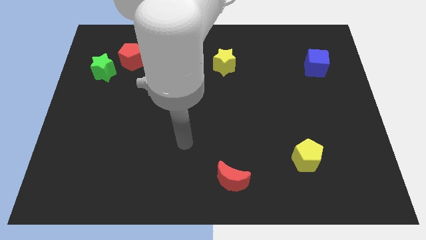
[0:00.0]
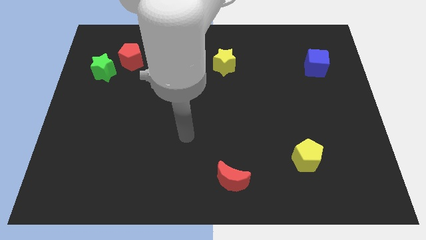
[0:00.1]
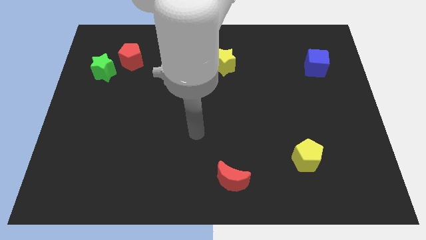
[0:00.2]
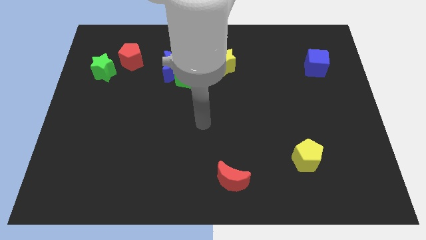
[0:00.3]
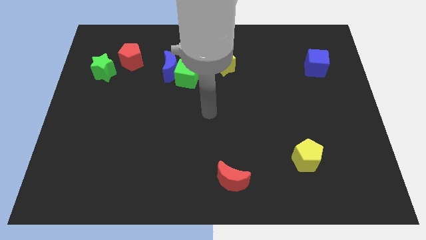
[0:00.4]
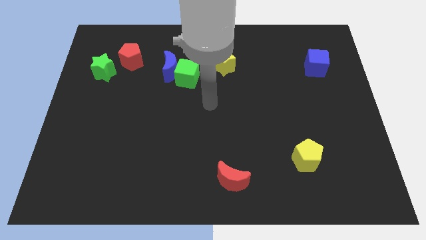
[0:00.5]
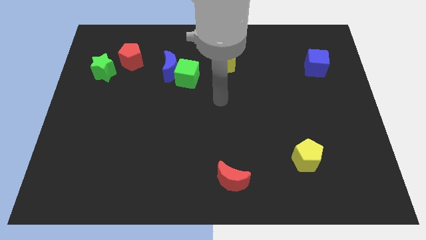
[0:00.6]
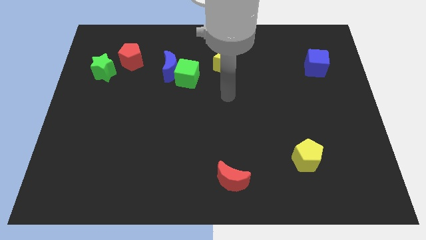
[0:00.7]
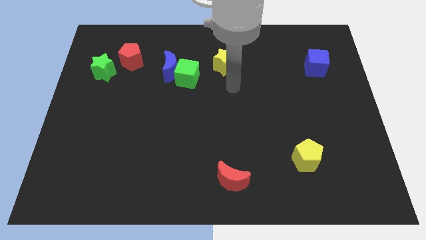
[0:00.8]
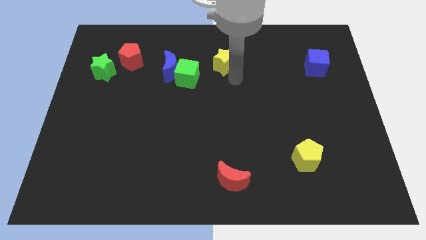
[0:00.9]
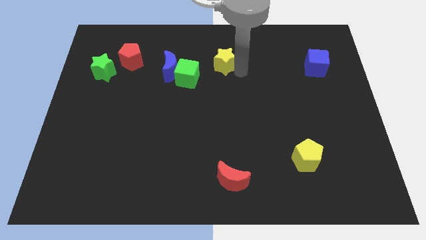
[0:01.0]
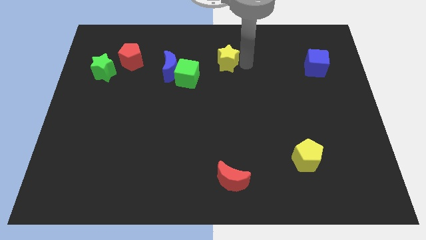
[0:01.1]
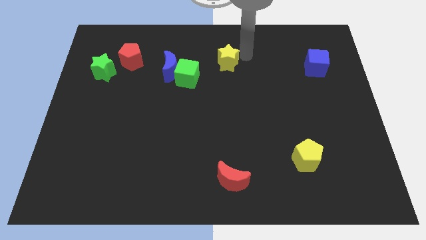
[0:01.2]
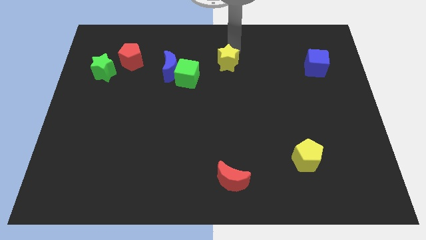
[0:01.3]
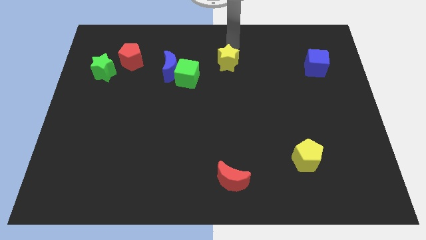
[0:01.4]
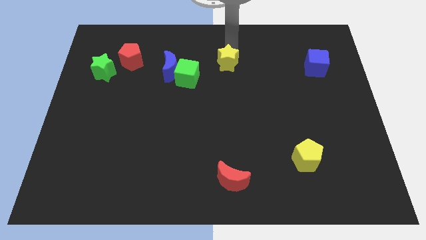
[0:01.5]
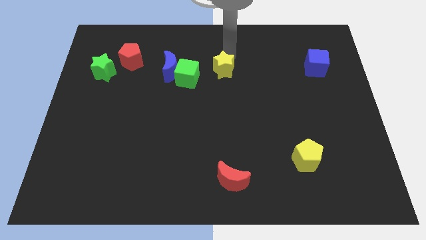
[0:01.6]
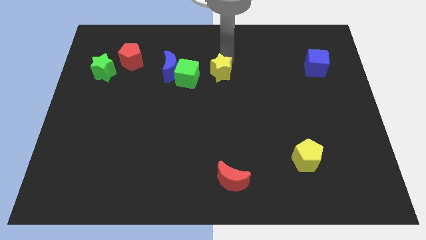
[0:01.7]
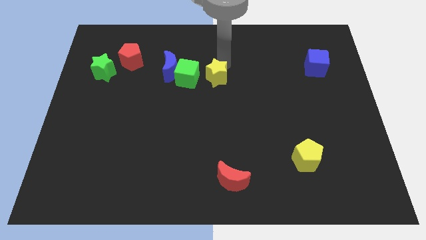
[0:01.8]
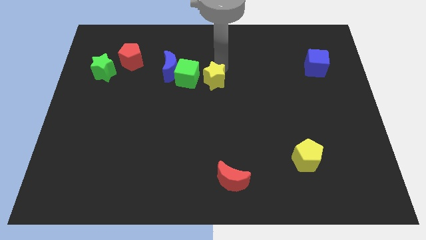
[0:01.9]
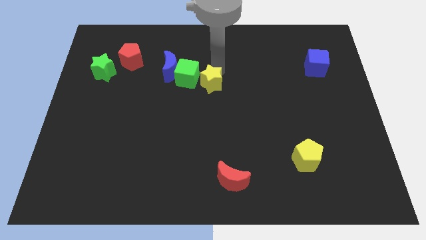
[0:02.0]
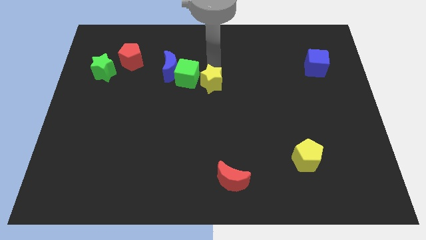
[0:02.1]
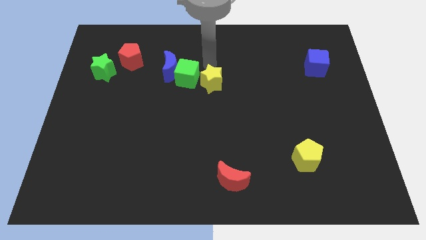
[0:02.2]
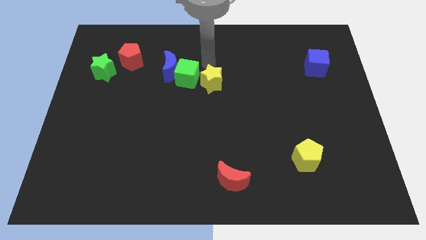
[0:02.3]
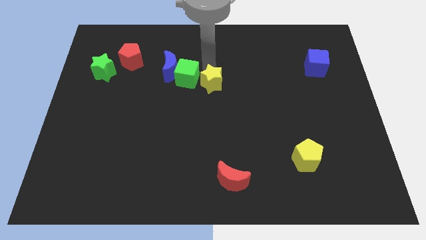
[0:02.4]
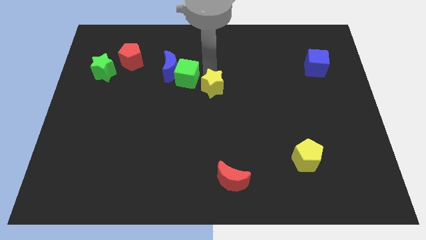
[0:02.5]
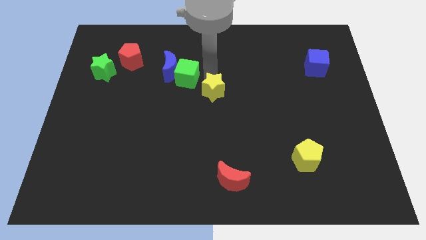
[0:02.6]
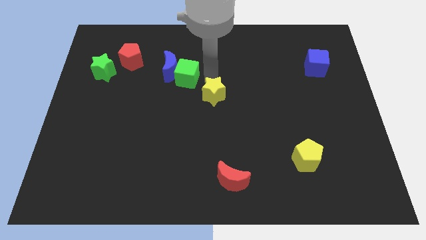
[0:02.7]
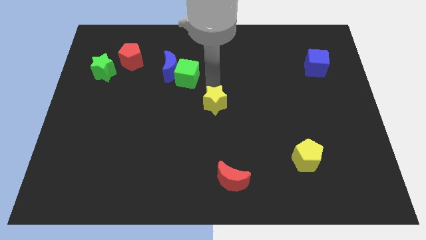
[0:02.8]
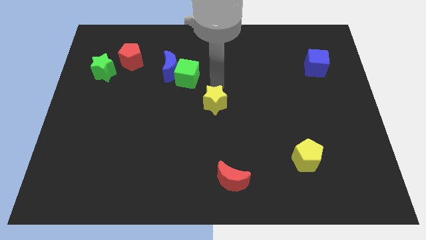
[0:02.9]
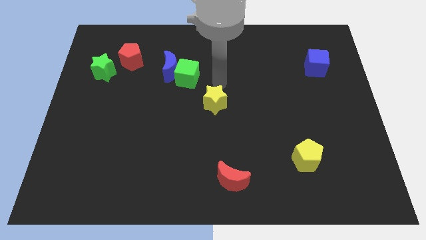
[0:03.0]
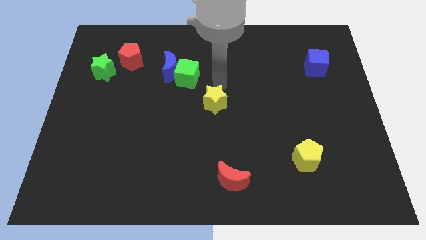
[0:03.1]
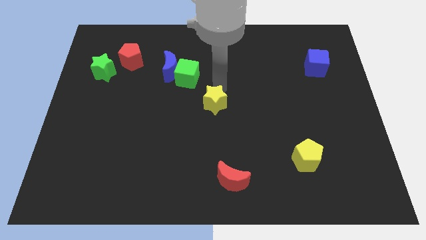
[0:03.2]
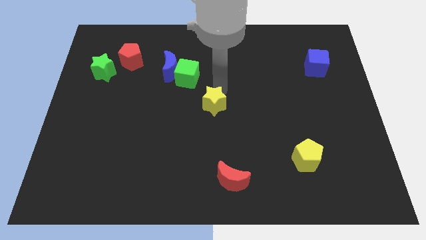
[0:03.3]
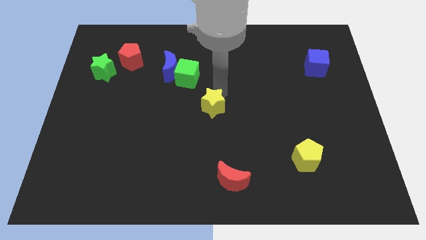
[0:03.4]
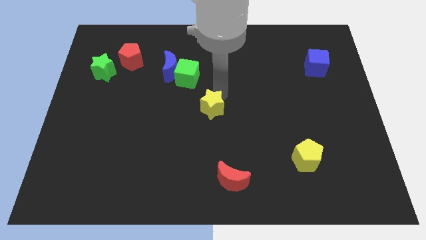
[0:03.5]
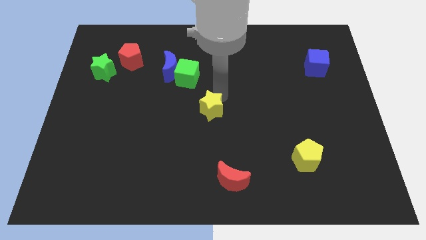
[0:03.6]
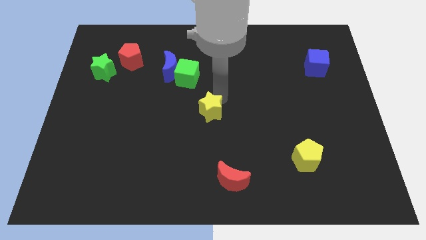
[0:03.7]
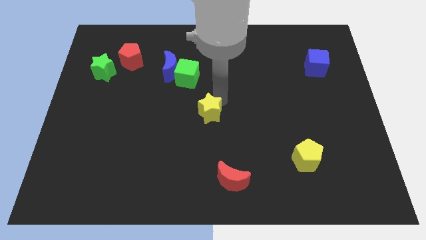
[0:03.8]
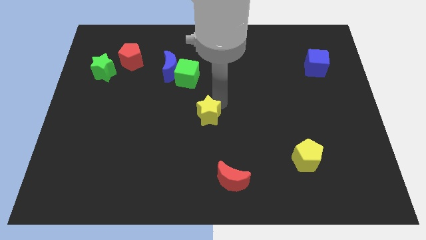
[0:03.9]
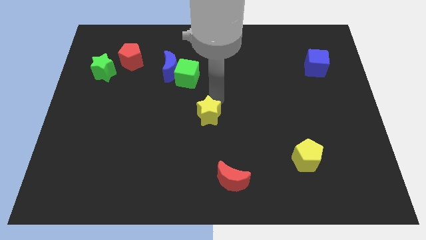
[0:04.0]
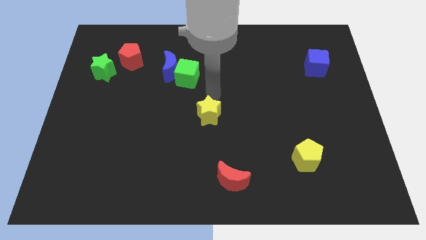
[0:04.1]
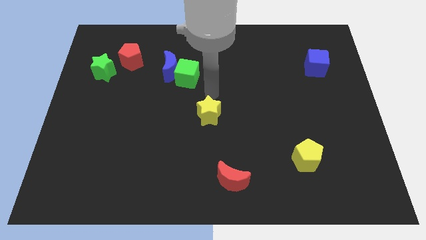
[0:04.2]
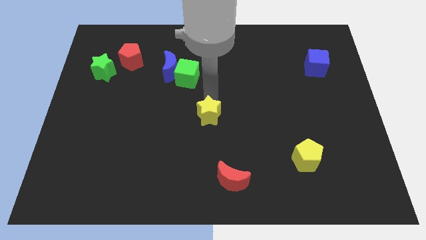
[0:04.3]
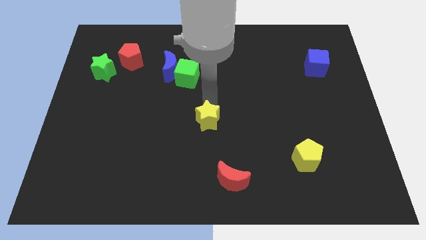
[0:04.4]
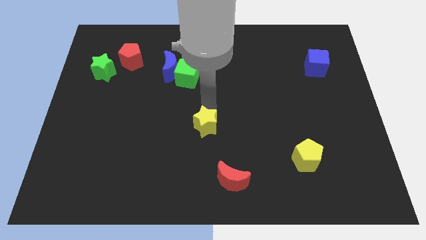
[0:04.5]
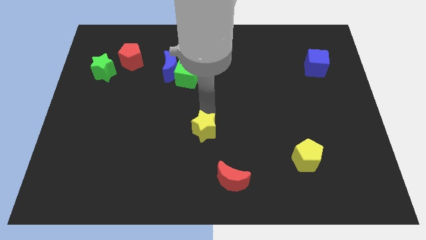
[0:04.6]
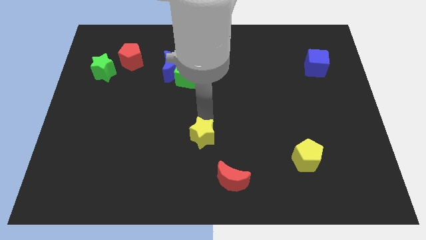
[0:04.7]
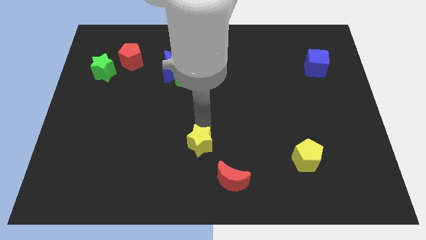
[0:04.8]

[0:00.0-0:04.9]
push the yellow star to the top left of the red moon

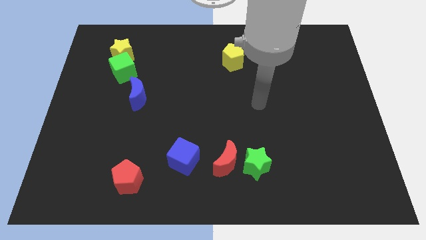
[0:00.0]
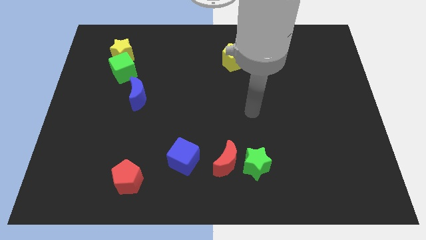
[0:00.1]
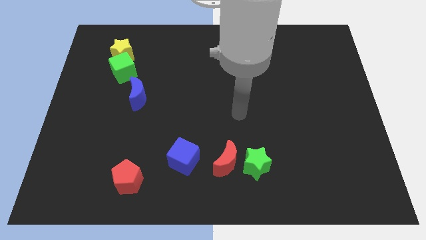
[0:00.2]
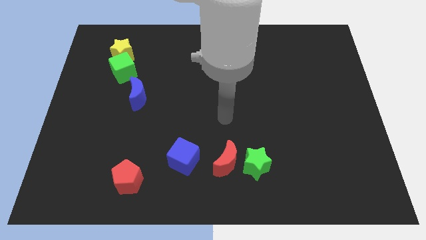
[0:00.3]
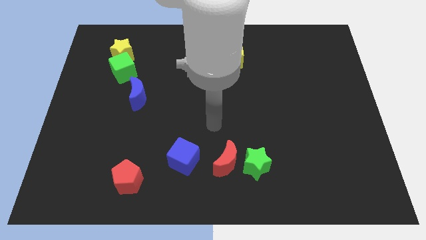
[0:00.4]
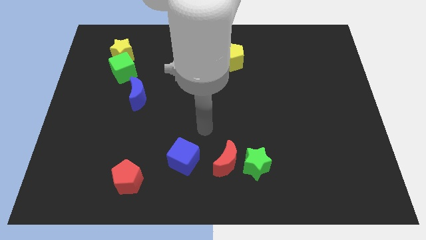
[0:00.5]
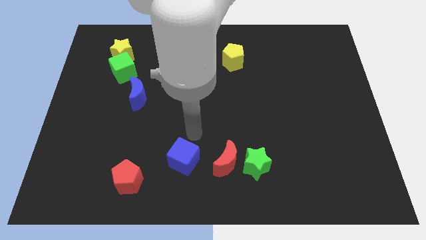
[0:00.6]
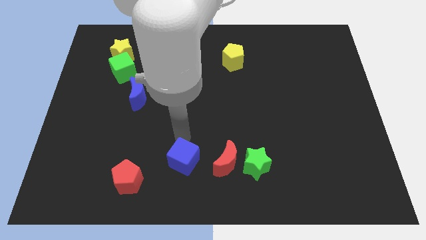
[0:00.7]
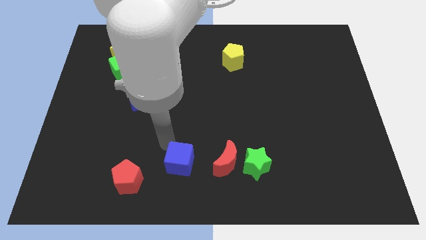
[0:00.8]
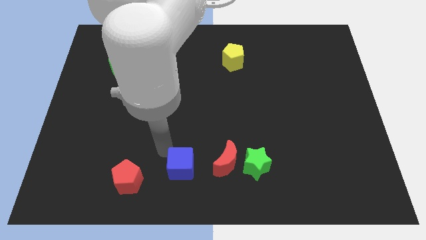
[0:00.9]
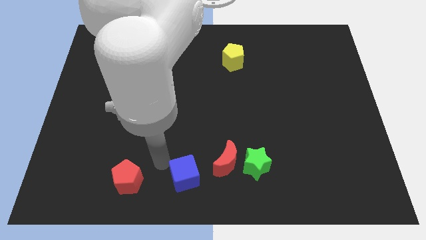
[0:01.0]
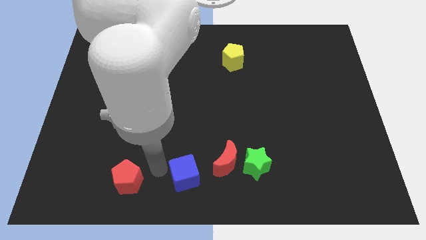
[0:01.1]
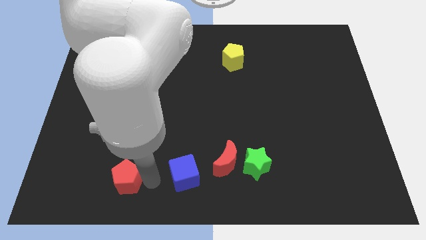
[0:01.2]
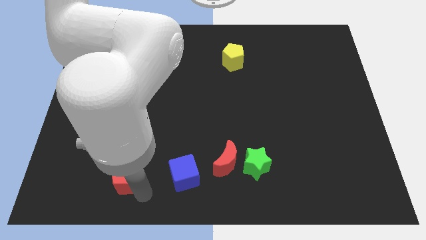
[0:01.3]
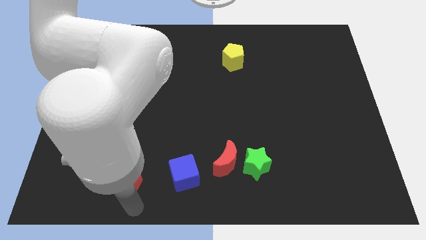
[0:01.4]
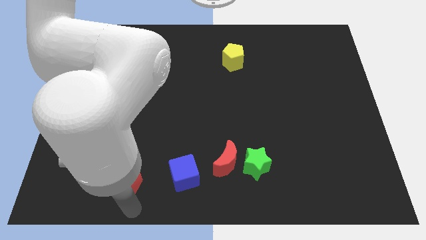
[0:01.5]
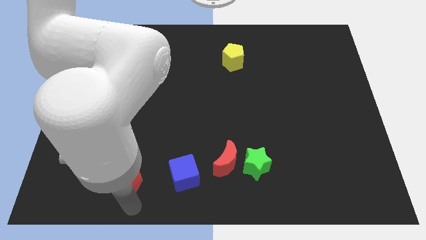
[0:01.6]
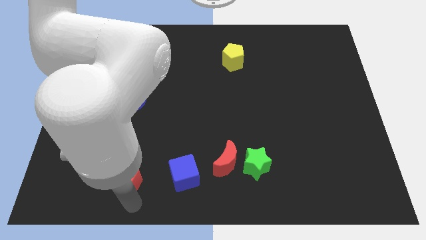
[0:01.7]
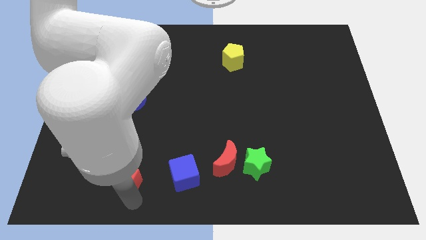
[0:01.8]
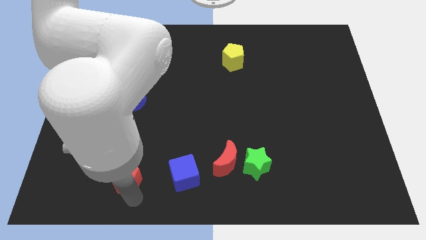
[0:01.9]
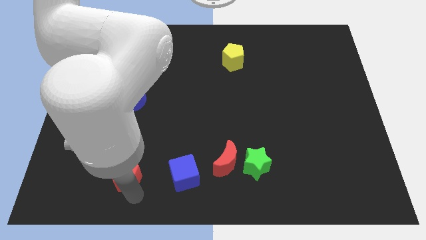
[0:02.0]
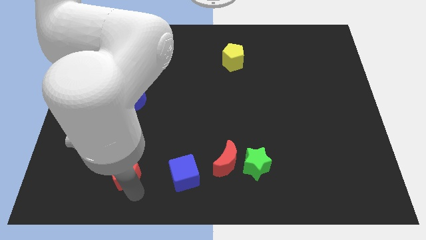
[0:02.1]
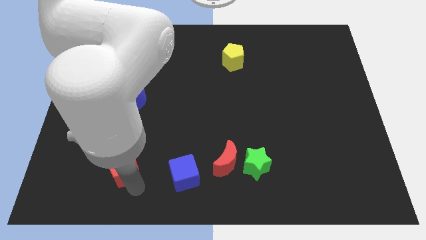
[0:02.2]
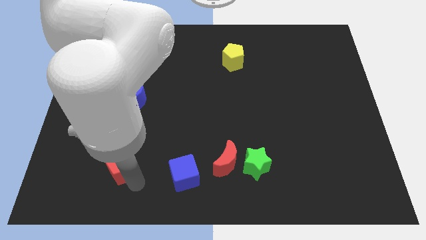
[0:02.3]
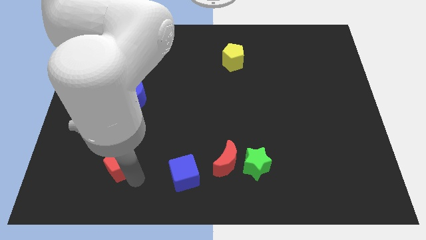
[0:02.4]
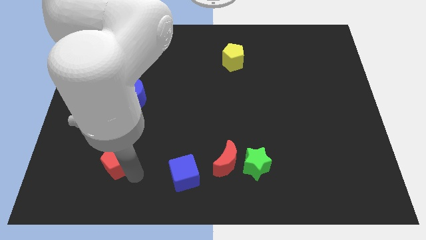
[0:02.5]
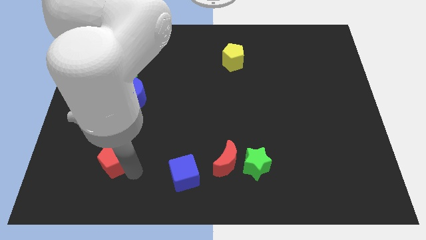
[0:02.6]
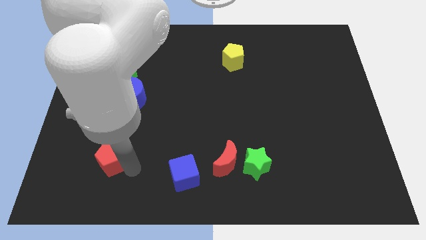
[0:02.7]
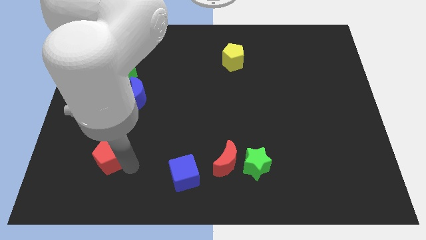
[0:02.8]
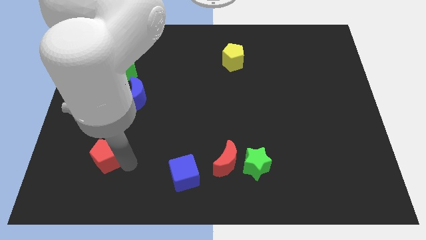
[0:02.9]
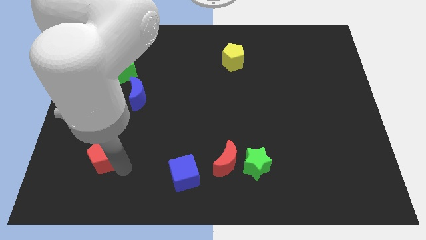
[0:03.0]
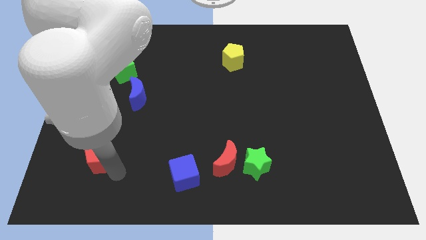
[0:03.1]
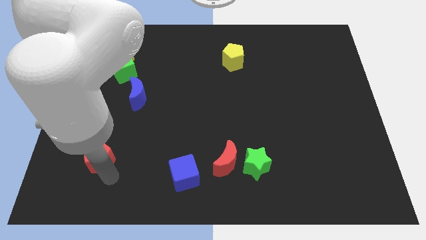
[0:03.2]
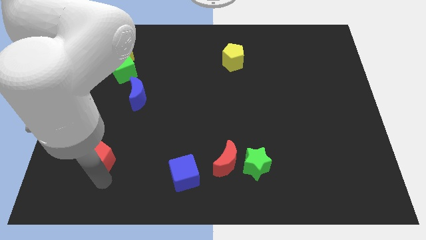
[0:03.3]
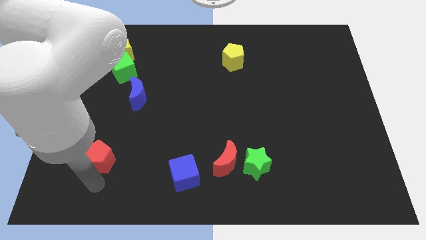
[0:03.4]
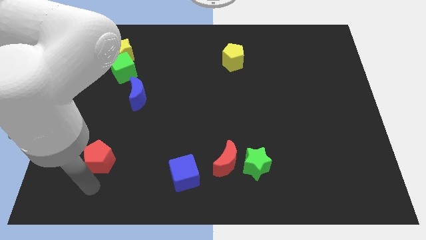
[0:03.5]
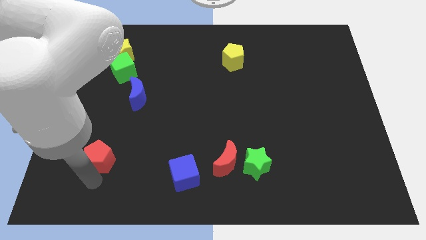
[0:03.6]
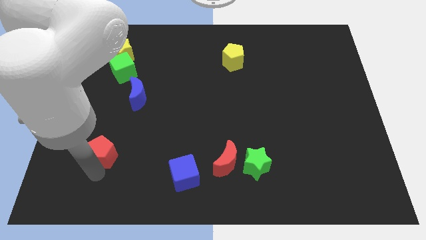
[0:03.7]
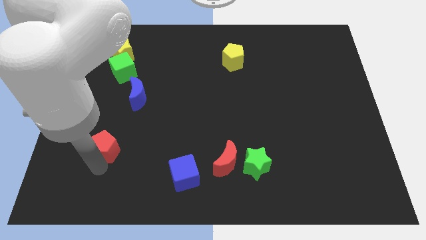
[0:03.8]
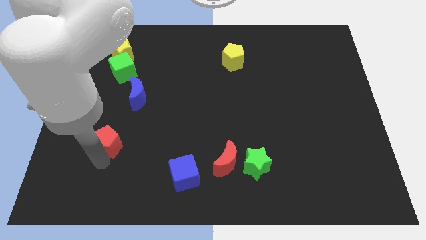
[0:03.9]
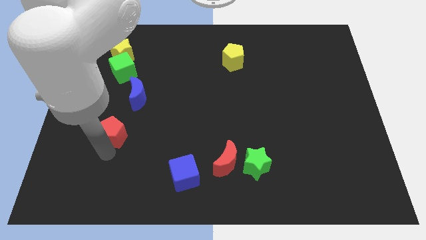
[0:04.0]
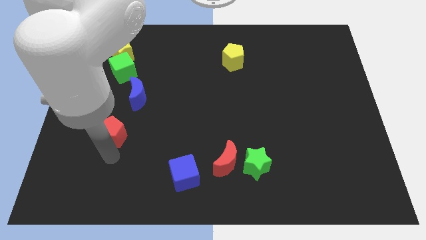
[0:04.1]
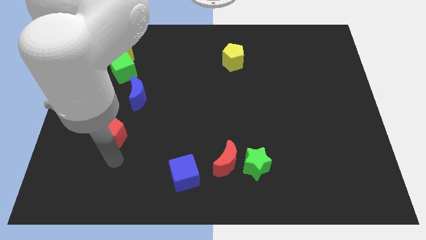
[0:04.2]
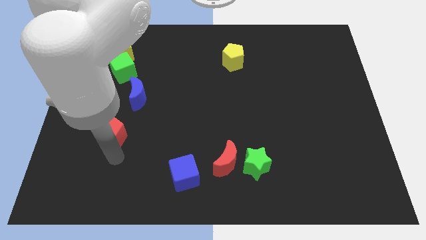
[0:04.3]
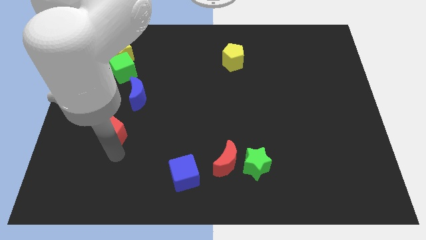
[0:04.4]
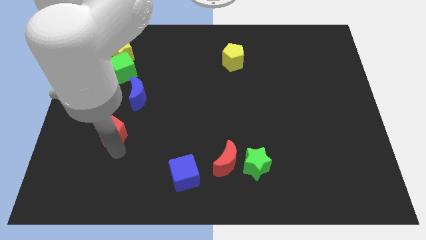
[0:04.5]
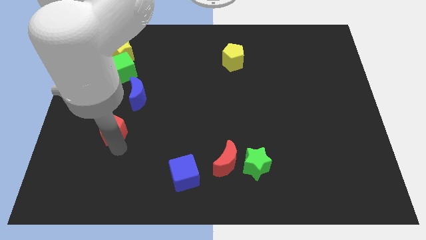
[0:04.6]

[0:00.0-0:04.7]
push the red pentagon to the bottom left of the blue moon
